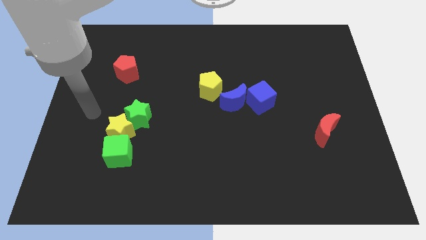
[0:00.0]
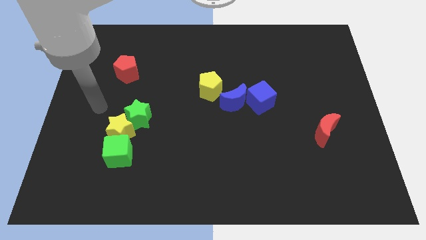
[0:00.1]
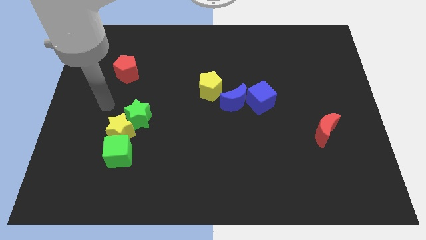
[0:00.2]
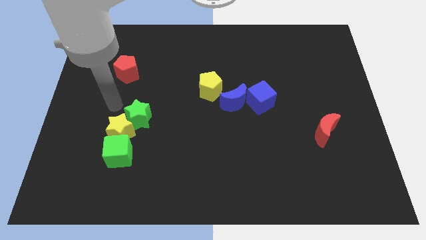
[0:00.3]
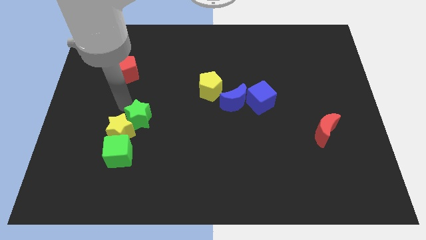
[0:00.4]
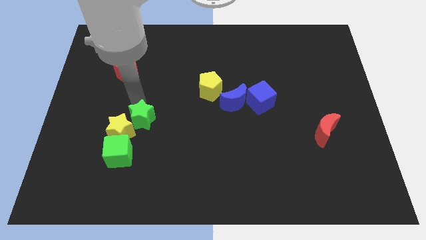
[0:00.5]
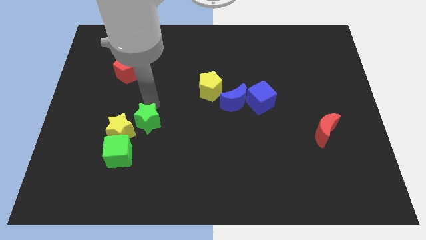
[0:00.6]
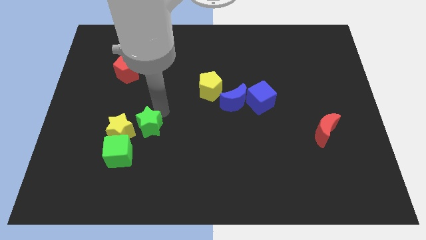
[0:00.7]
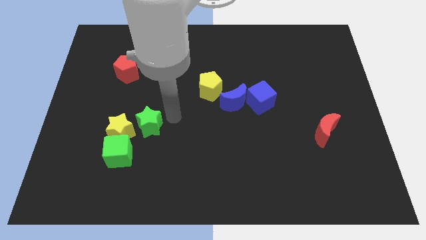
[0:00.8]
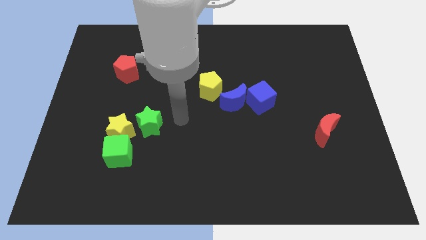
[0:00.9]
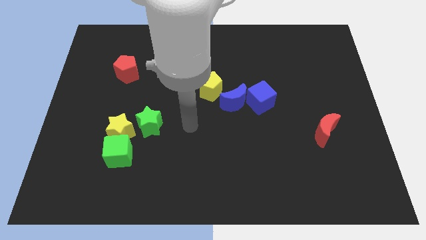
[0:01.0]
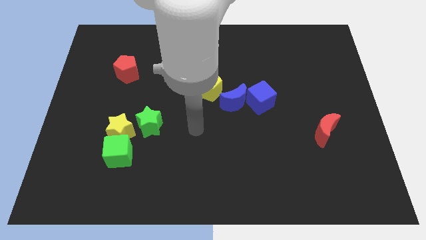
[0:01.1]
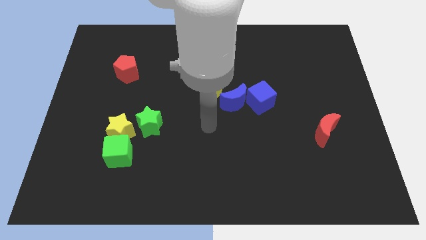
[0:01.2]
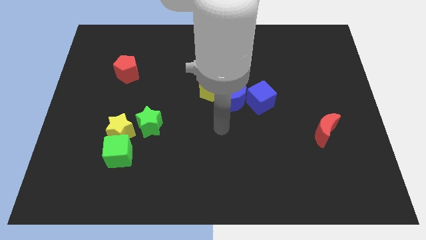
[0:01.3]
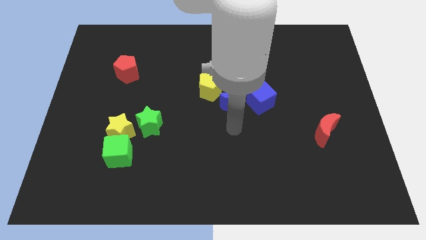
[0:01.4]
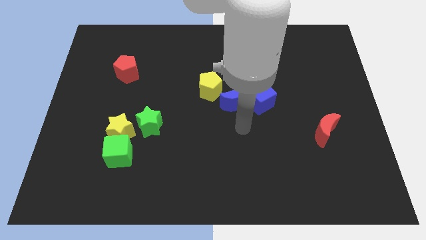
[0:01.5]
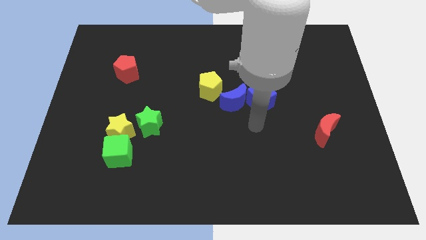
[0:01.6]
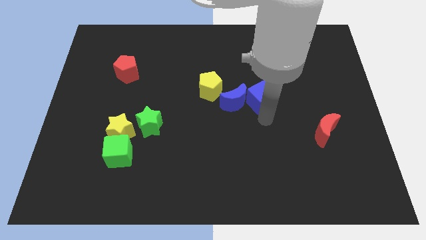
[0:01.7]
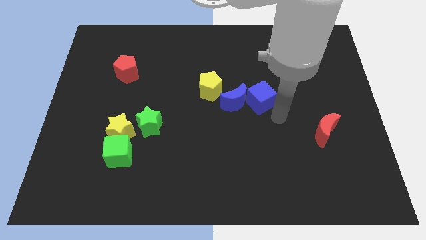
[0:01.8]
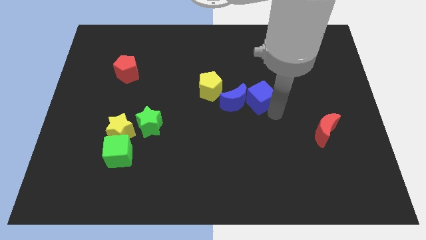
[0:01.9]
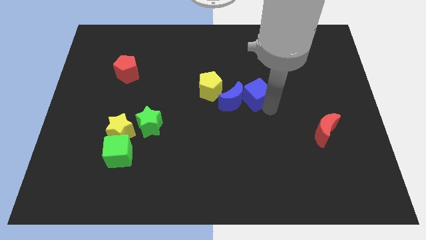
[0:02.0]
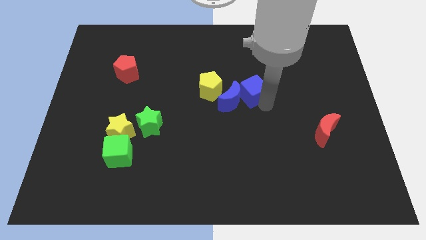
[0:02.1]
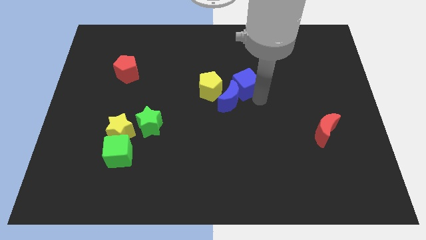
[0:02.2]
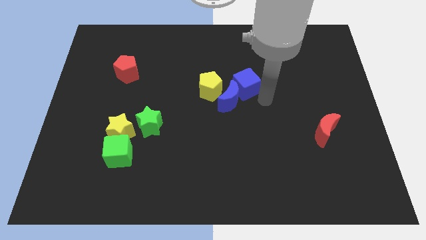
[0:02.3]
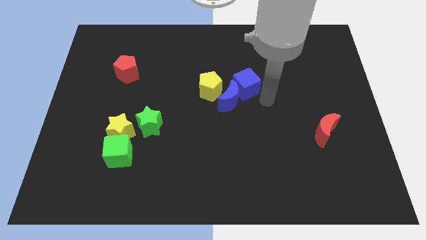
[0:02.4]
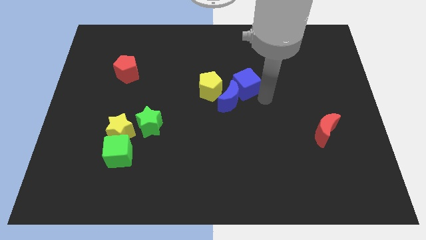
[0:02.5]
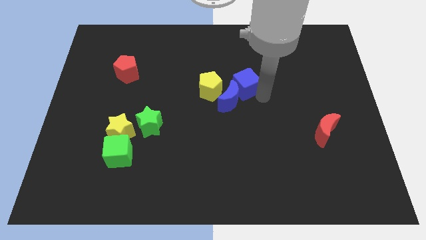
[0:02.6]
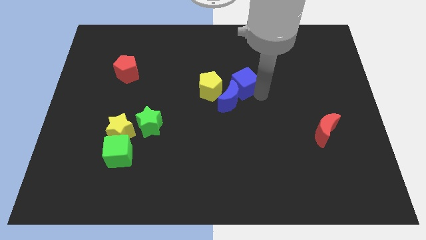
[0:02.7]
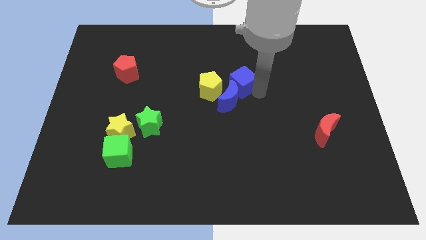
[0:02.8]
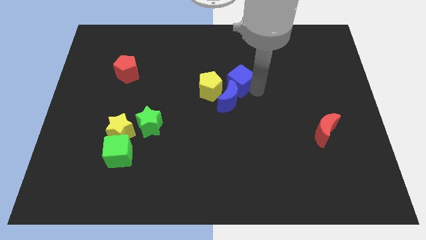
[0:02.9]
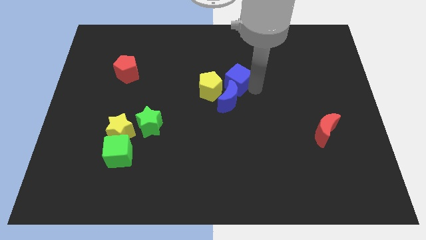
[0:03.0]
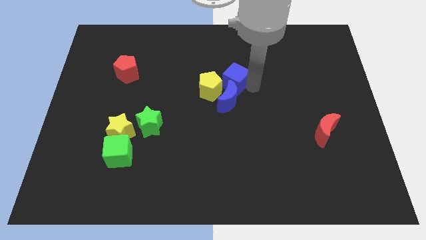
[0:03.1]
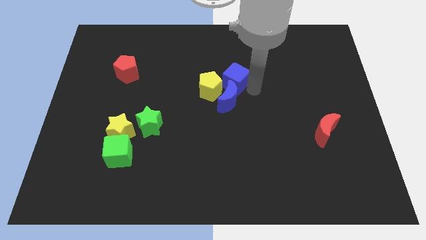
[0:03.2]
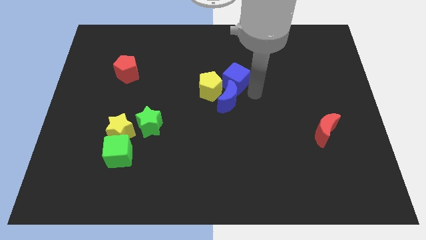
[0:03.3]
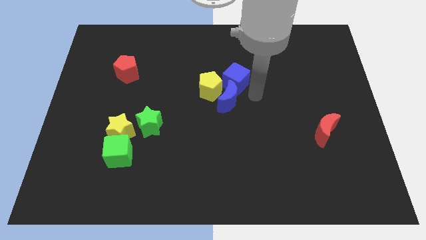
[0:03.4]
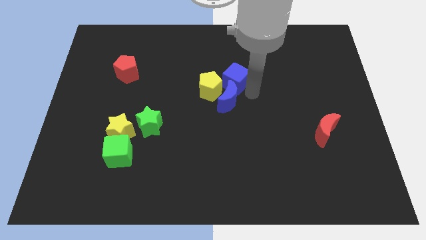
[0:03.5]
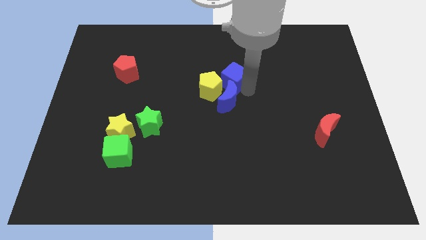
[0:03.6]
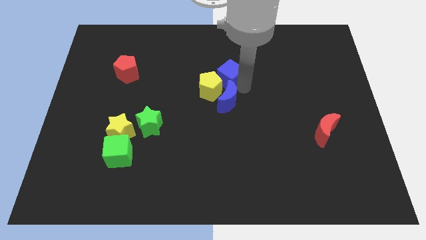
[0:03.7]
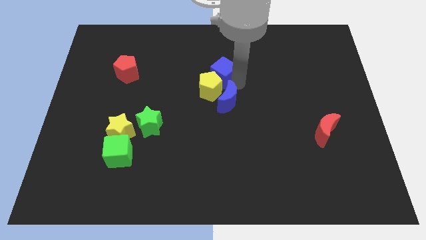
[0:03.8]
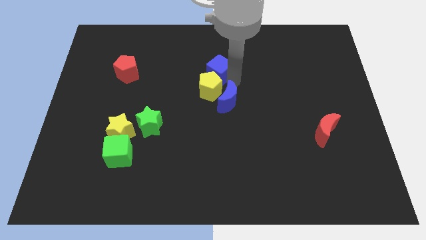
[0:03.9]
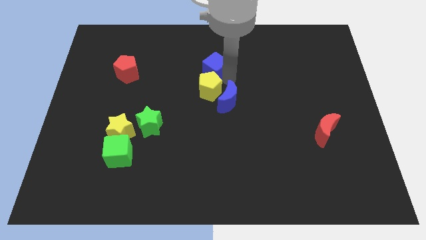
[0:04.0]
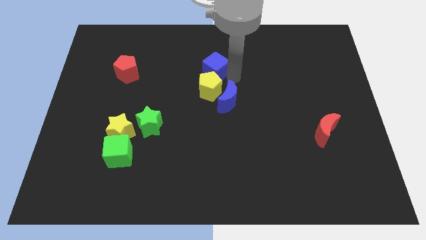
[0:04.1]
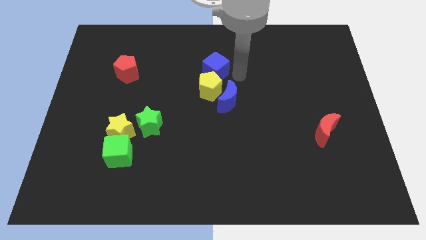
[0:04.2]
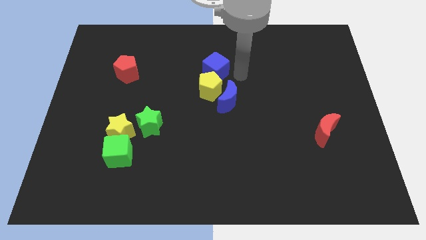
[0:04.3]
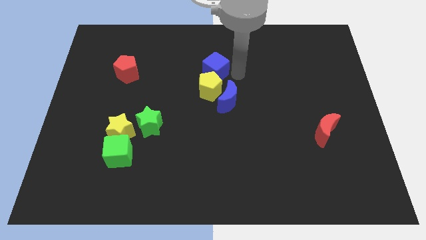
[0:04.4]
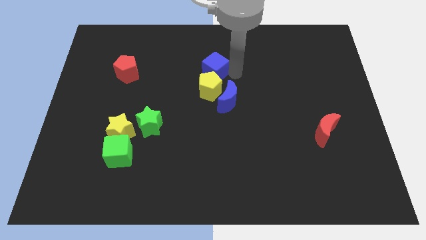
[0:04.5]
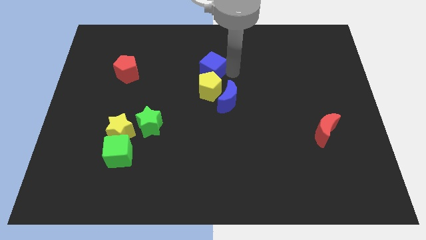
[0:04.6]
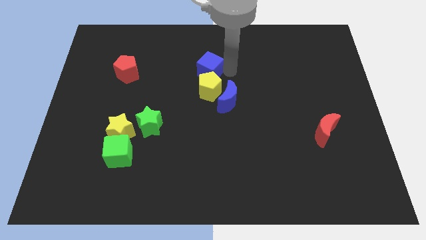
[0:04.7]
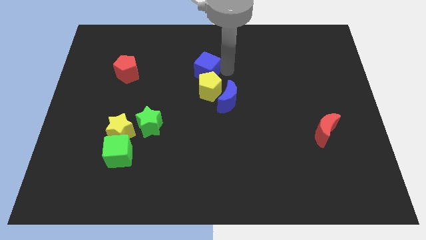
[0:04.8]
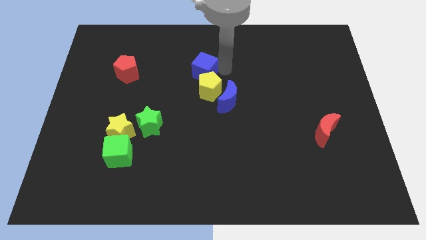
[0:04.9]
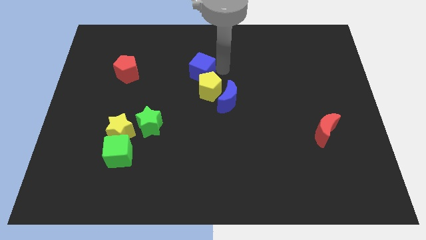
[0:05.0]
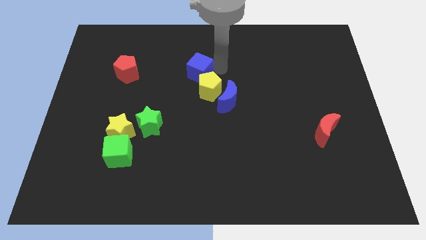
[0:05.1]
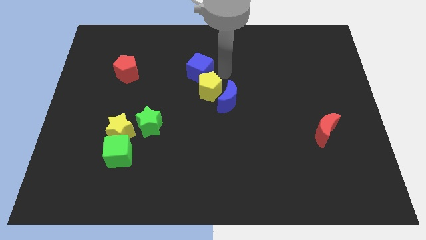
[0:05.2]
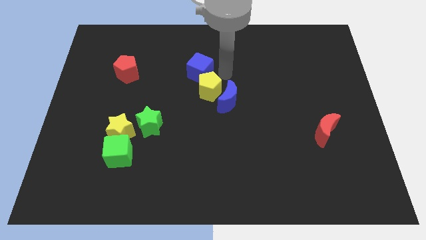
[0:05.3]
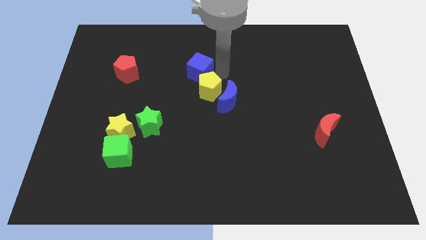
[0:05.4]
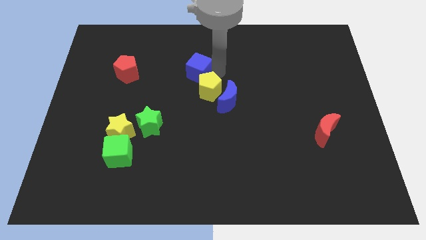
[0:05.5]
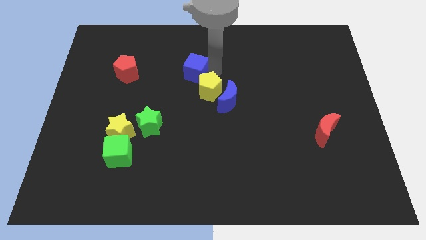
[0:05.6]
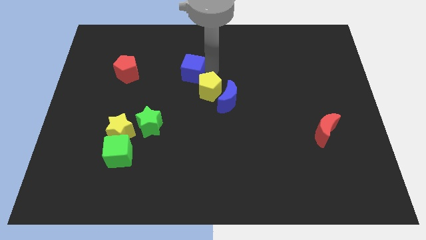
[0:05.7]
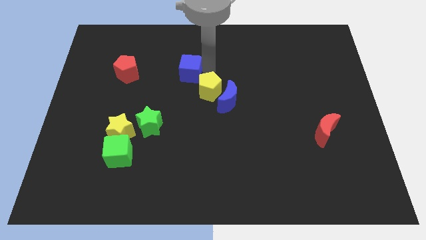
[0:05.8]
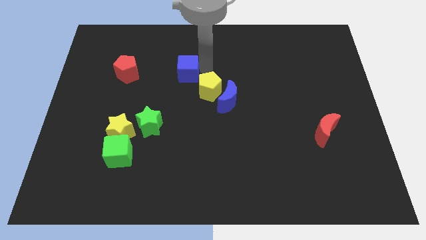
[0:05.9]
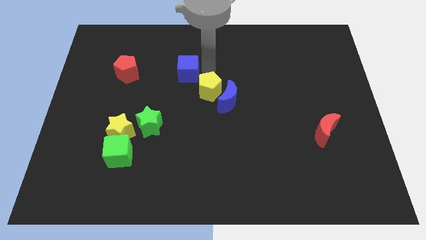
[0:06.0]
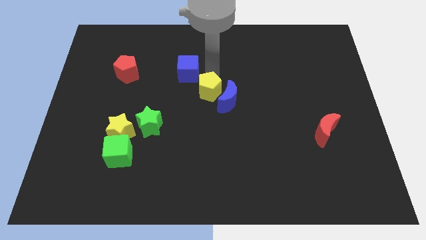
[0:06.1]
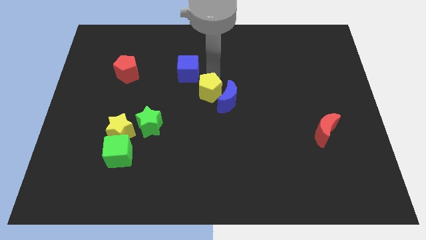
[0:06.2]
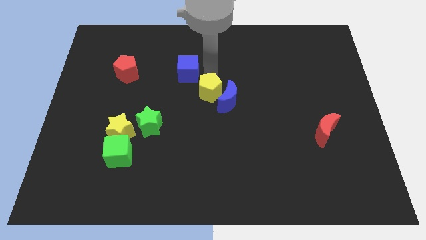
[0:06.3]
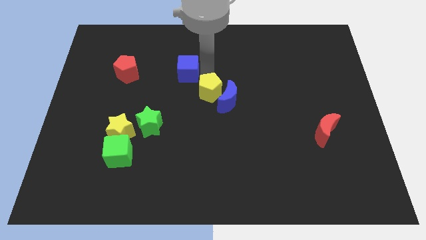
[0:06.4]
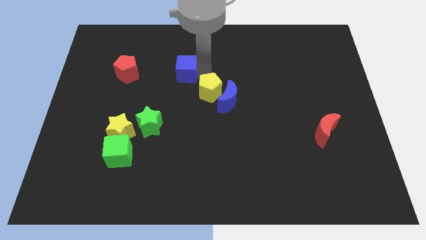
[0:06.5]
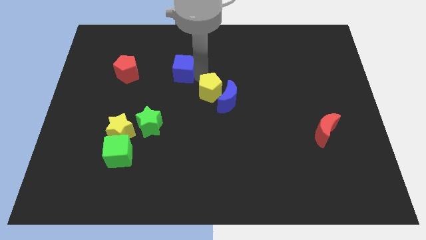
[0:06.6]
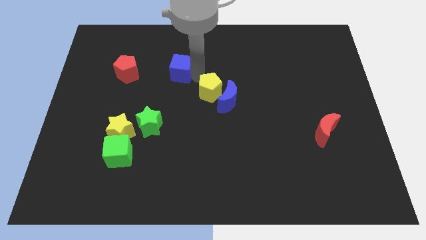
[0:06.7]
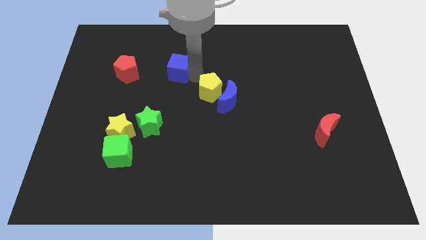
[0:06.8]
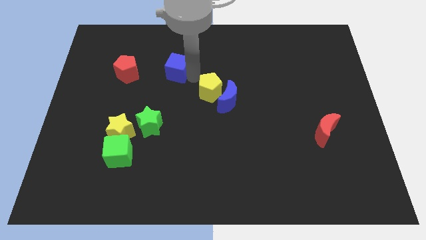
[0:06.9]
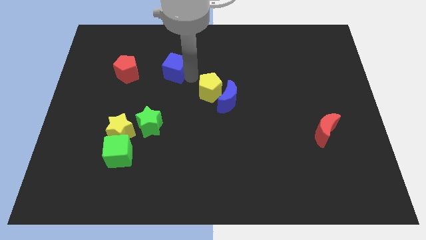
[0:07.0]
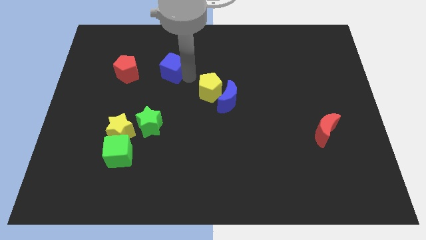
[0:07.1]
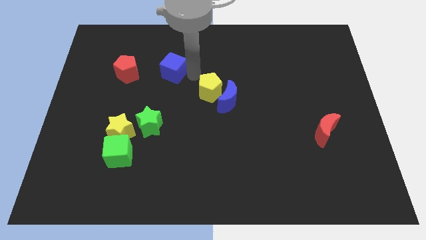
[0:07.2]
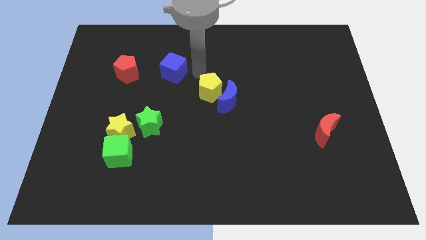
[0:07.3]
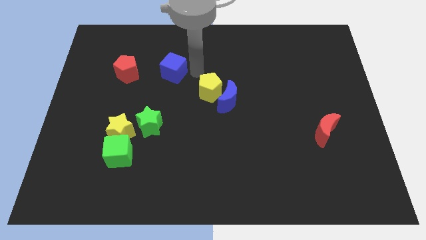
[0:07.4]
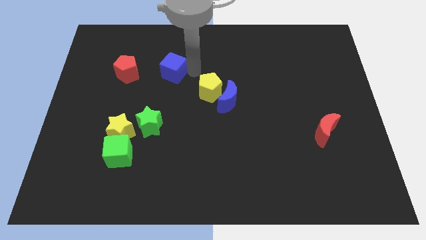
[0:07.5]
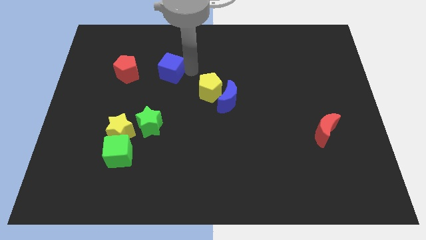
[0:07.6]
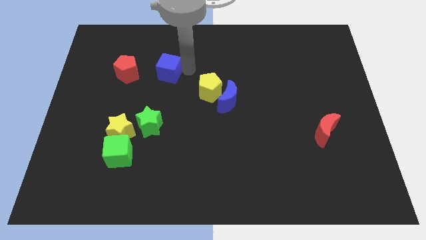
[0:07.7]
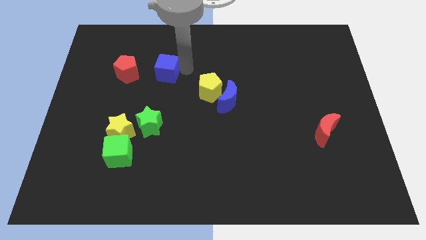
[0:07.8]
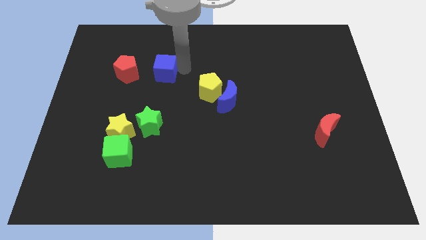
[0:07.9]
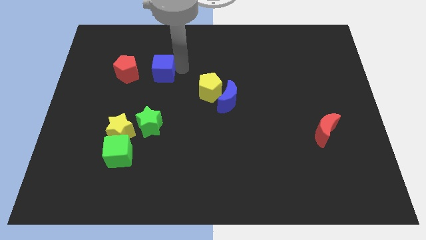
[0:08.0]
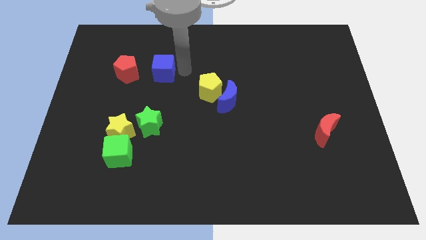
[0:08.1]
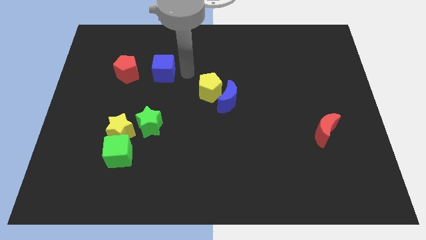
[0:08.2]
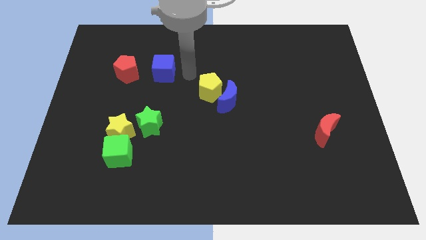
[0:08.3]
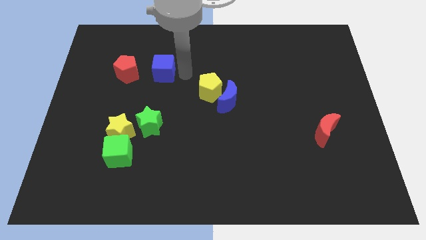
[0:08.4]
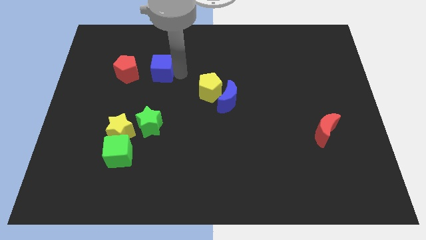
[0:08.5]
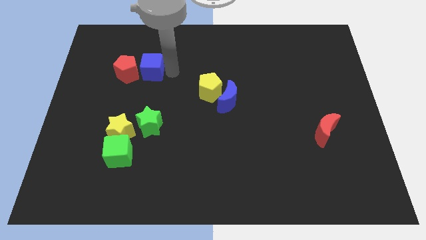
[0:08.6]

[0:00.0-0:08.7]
put the blue cube towards the red pentagon
